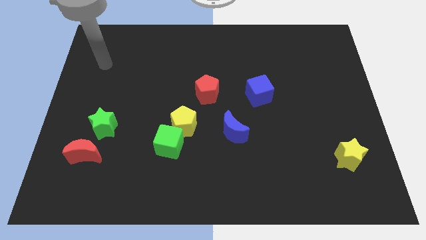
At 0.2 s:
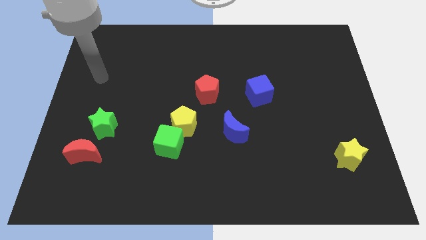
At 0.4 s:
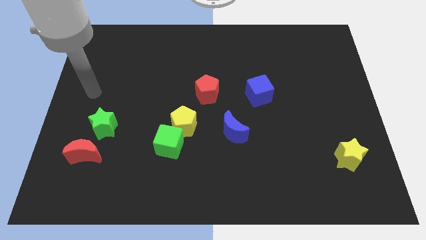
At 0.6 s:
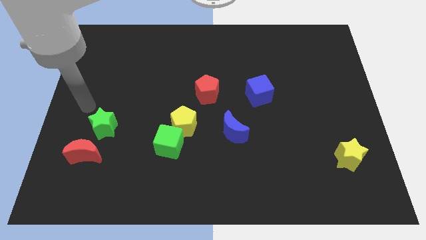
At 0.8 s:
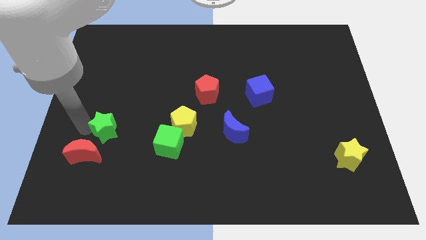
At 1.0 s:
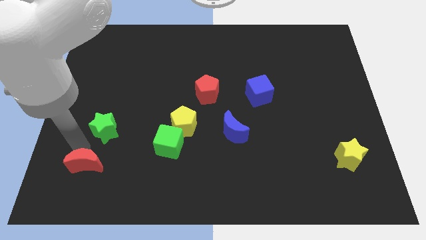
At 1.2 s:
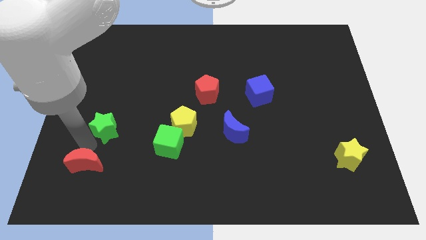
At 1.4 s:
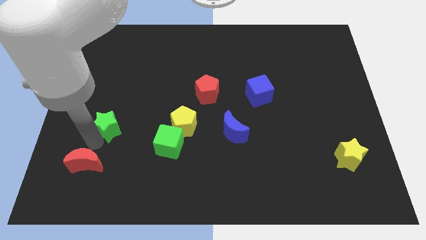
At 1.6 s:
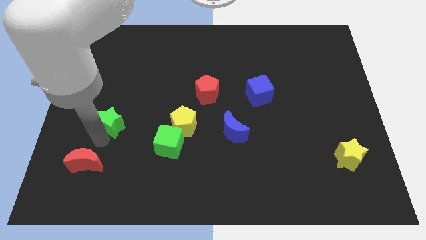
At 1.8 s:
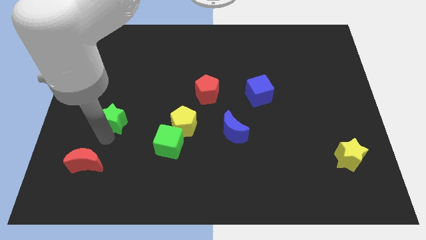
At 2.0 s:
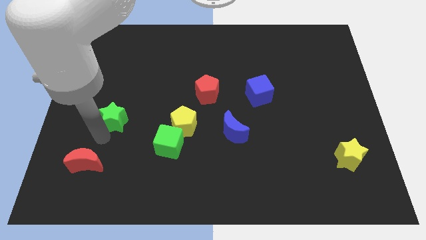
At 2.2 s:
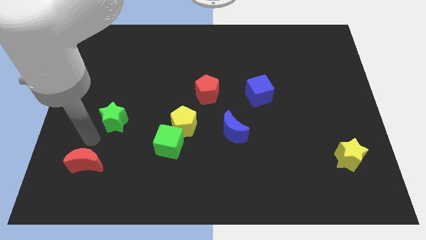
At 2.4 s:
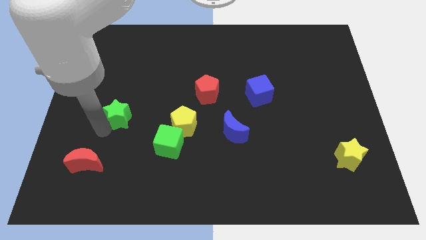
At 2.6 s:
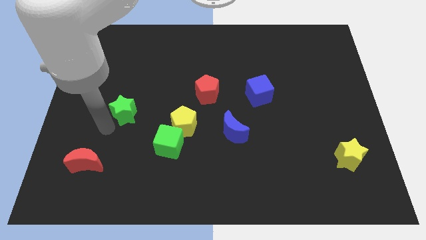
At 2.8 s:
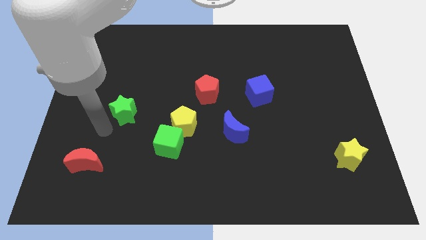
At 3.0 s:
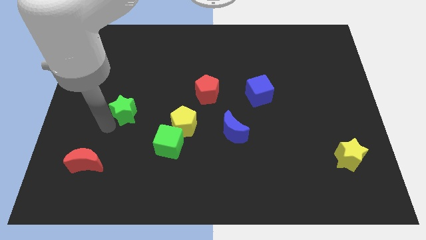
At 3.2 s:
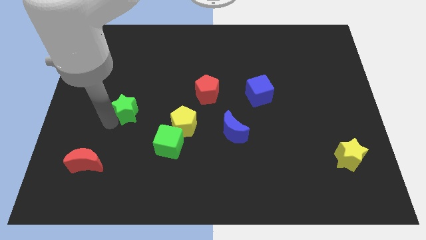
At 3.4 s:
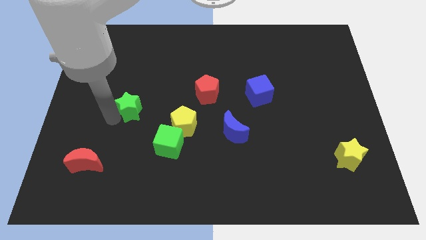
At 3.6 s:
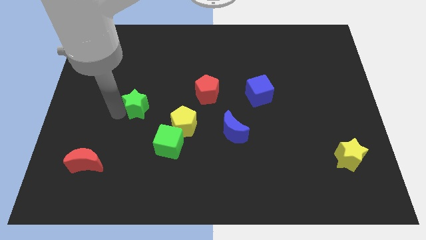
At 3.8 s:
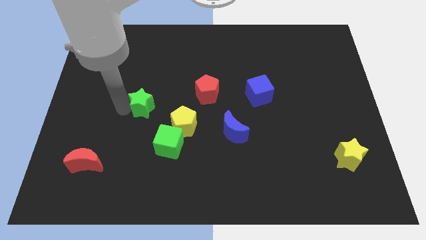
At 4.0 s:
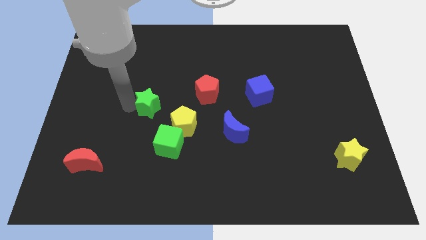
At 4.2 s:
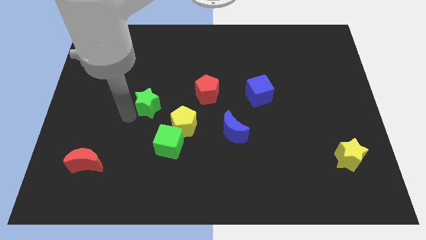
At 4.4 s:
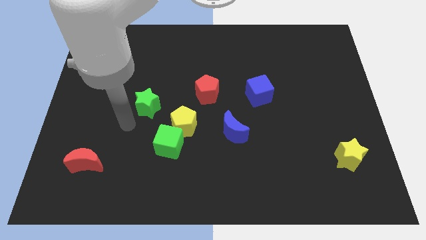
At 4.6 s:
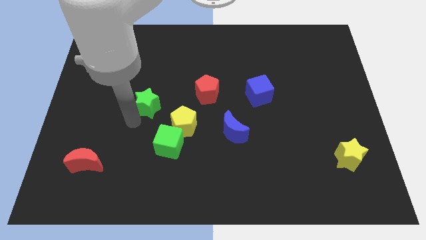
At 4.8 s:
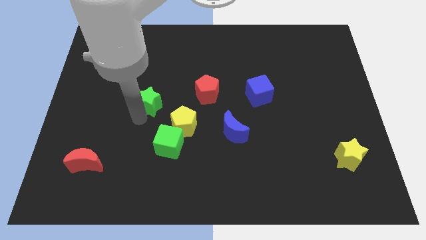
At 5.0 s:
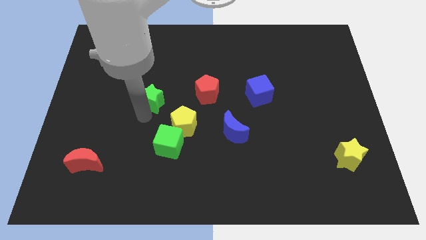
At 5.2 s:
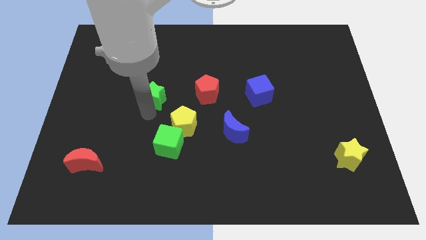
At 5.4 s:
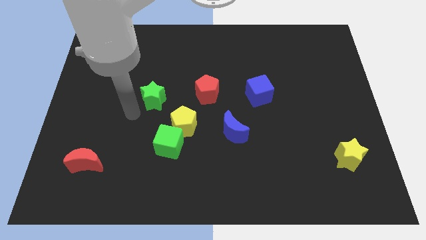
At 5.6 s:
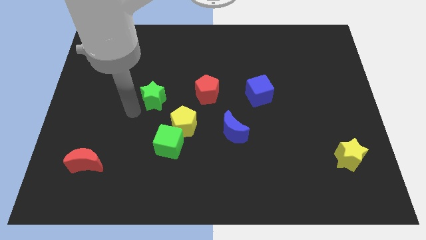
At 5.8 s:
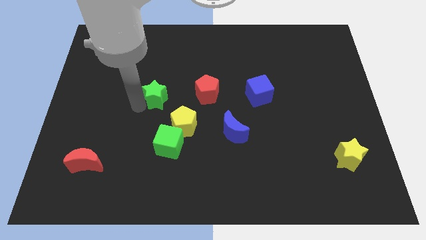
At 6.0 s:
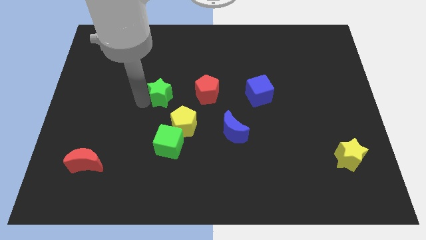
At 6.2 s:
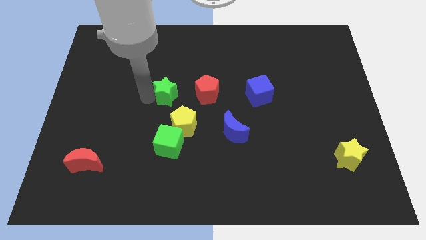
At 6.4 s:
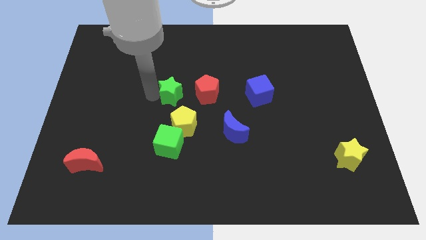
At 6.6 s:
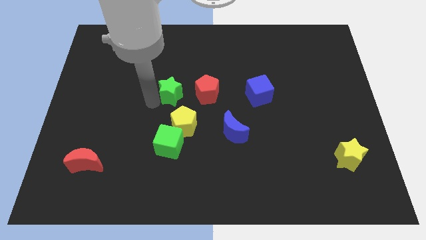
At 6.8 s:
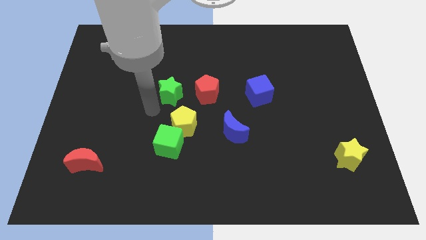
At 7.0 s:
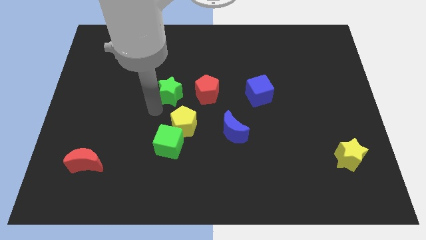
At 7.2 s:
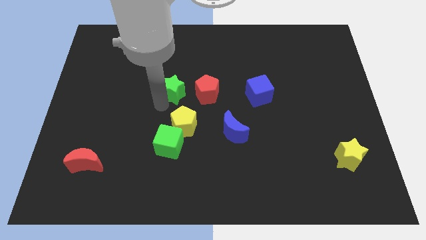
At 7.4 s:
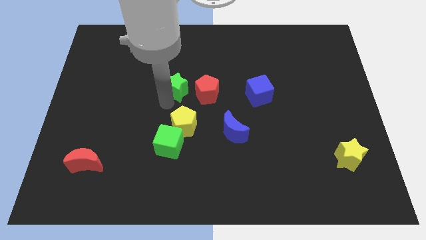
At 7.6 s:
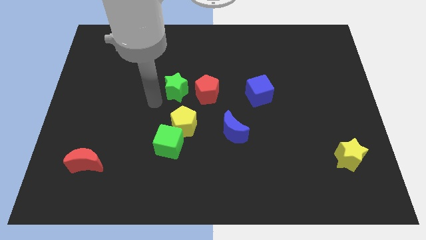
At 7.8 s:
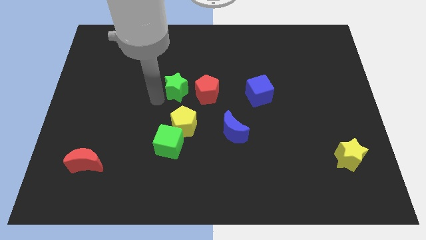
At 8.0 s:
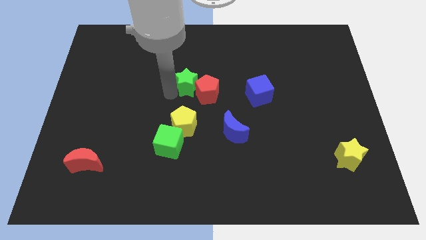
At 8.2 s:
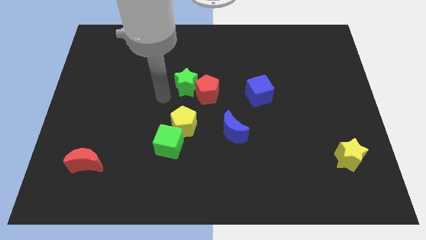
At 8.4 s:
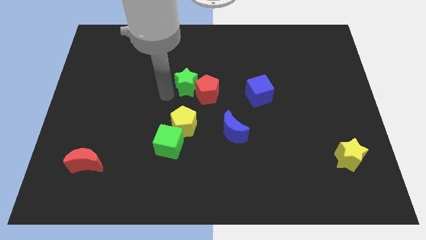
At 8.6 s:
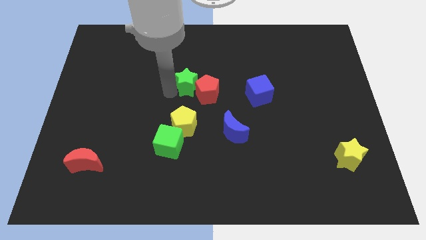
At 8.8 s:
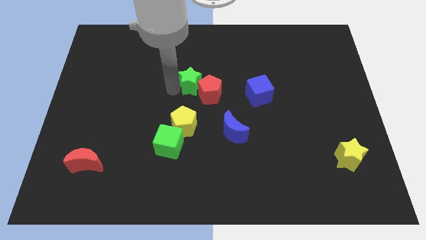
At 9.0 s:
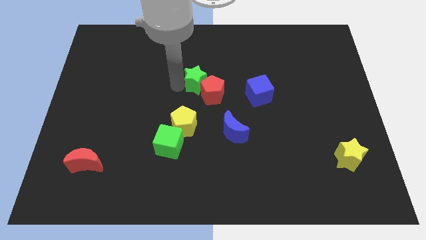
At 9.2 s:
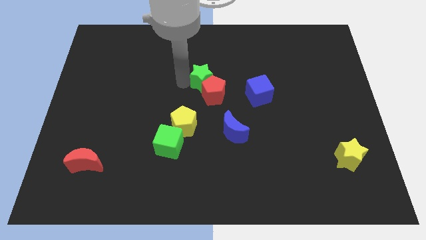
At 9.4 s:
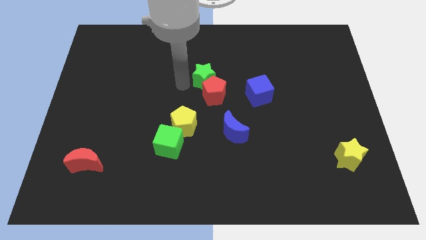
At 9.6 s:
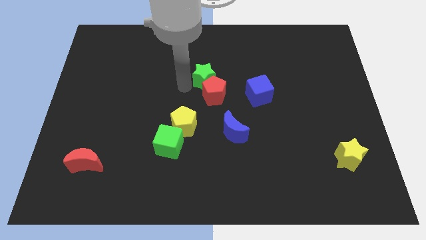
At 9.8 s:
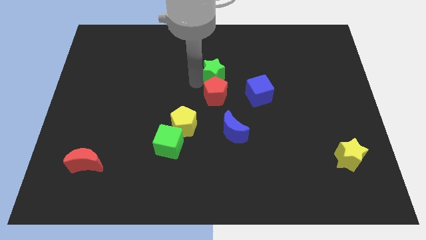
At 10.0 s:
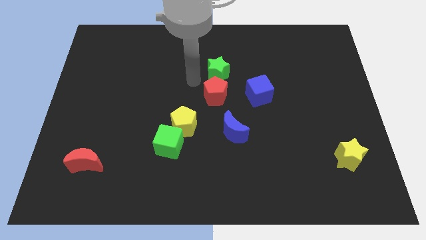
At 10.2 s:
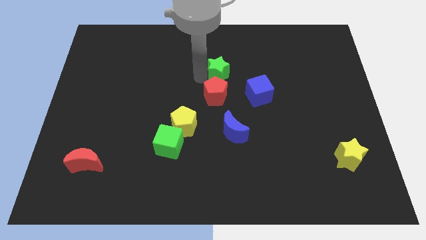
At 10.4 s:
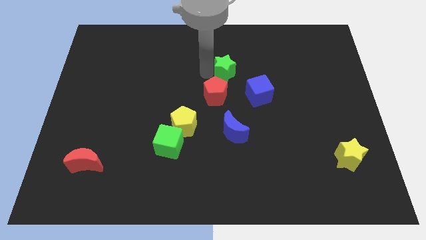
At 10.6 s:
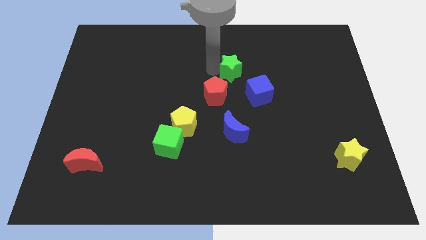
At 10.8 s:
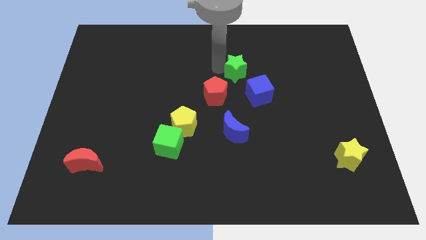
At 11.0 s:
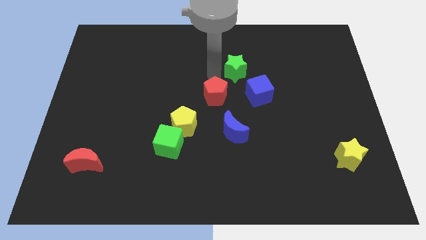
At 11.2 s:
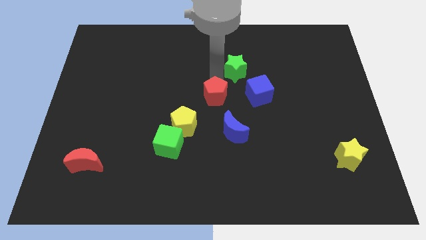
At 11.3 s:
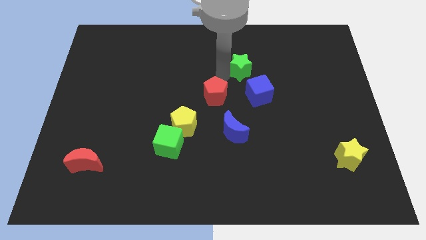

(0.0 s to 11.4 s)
put the green star to the top side of the blue cube

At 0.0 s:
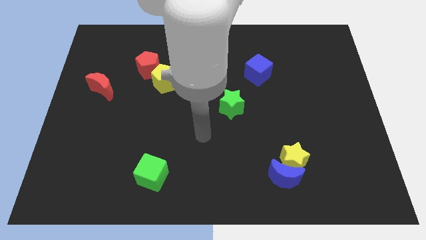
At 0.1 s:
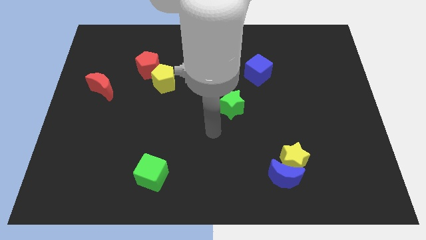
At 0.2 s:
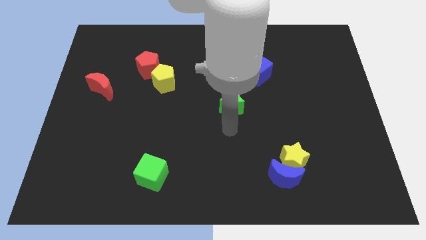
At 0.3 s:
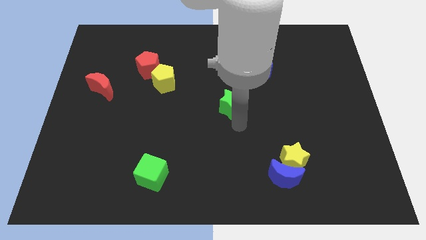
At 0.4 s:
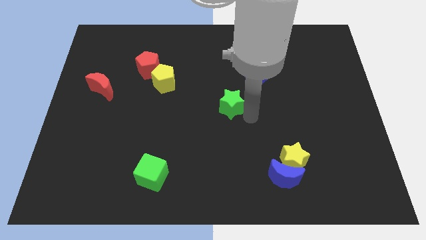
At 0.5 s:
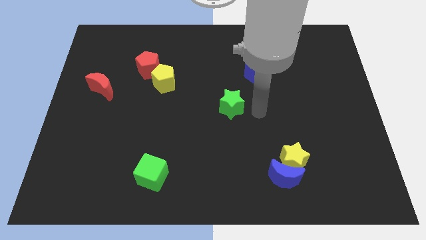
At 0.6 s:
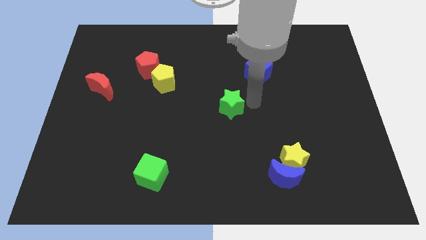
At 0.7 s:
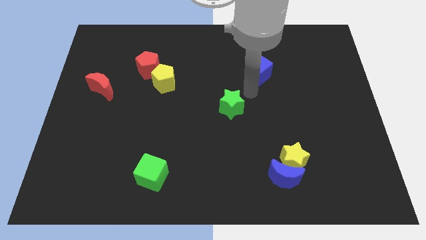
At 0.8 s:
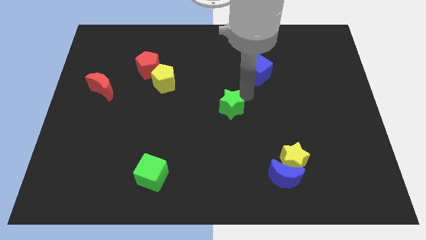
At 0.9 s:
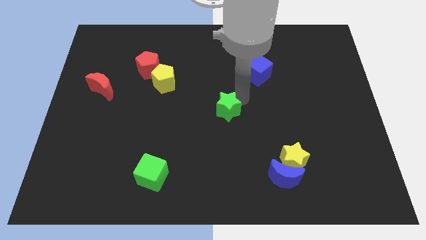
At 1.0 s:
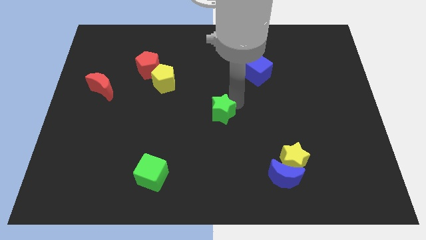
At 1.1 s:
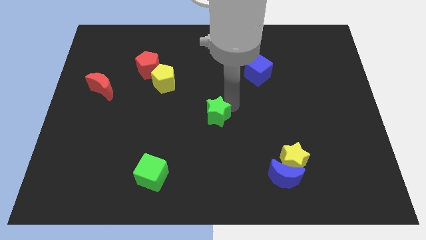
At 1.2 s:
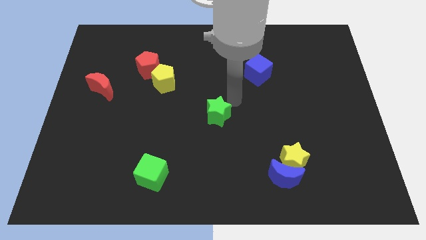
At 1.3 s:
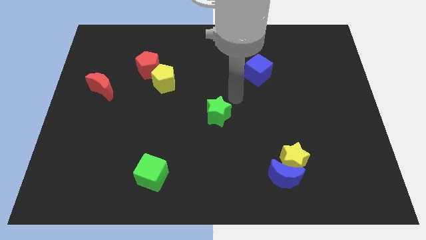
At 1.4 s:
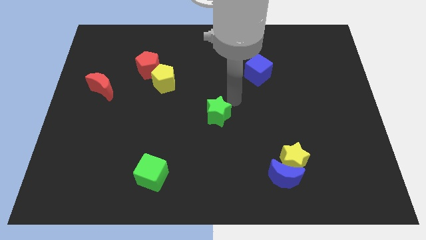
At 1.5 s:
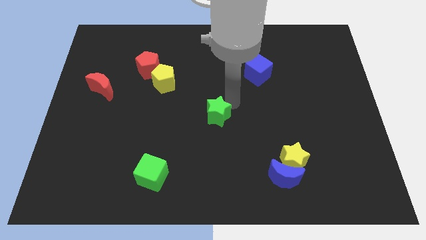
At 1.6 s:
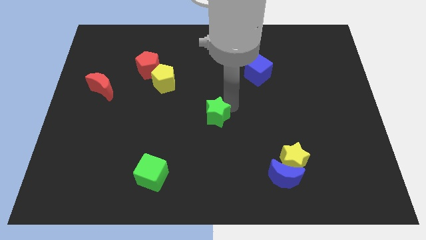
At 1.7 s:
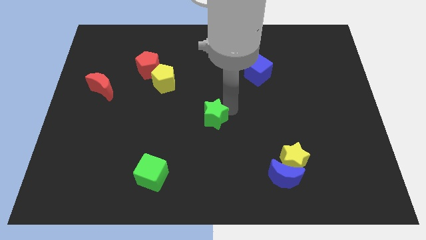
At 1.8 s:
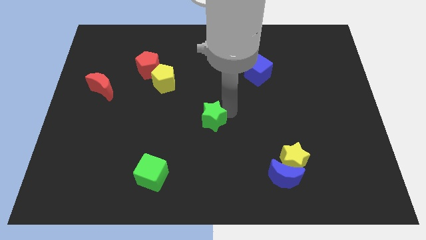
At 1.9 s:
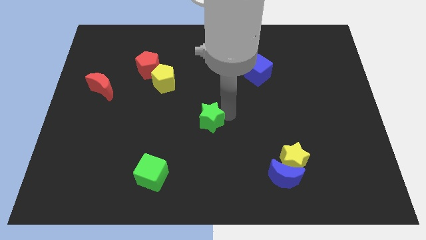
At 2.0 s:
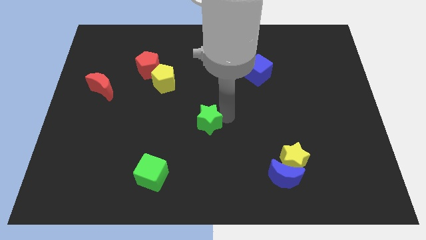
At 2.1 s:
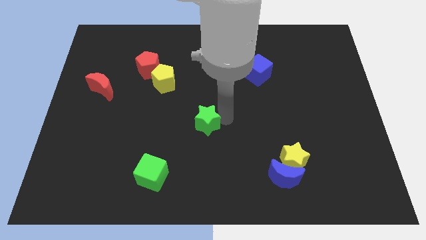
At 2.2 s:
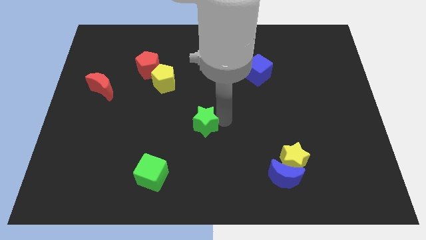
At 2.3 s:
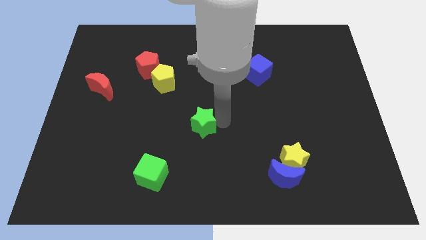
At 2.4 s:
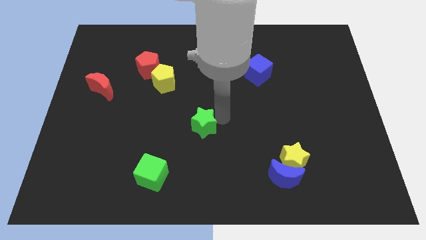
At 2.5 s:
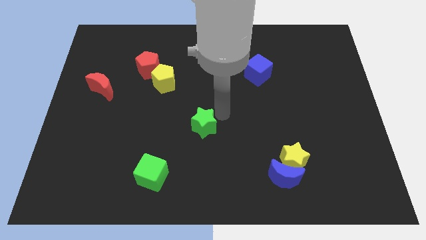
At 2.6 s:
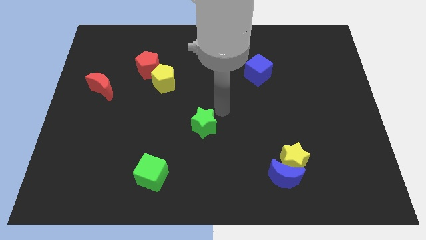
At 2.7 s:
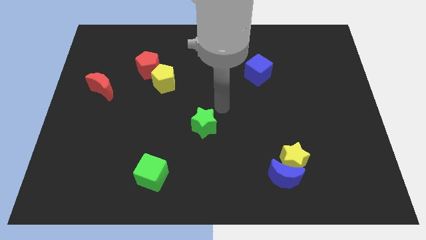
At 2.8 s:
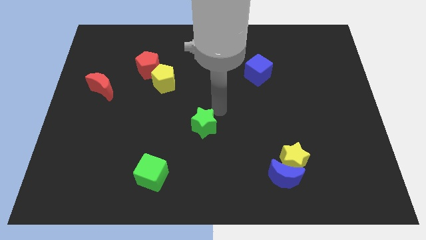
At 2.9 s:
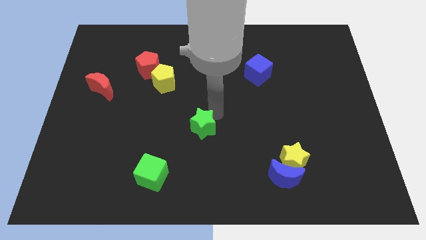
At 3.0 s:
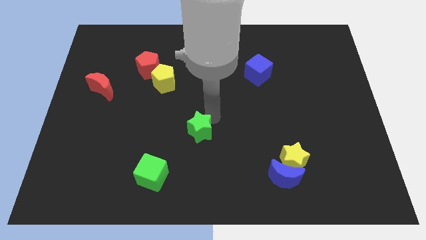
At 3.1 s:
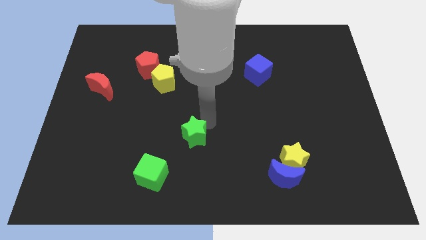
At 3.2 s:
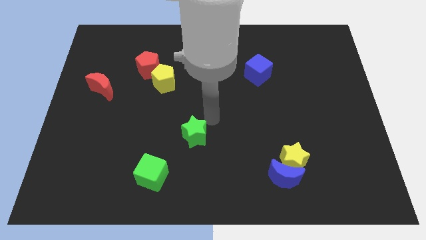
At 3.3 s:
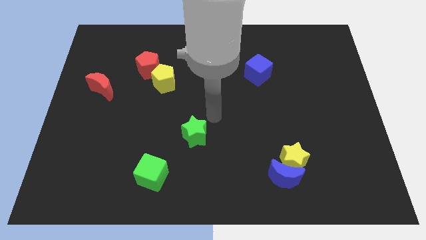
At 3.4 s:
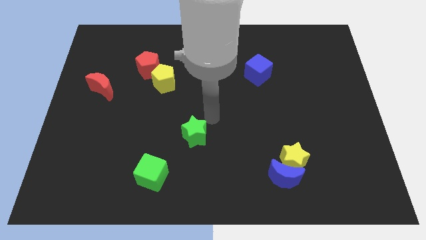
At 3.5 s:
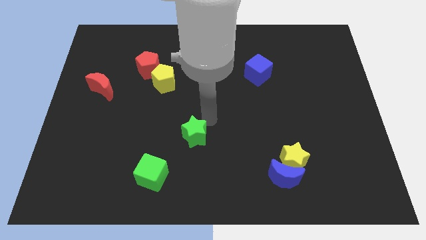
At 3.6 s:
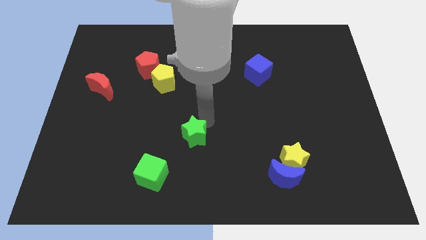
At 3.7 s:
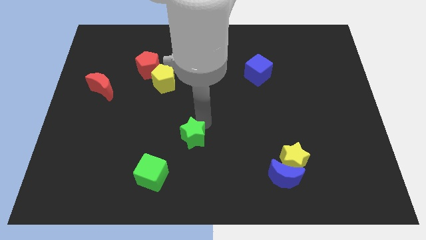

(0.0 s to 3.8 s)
move the green star to the top right side of the green cube
